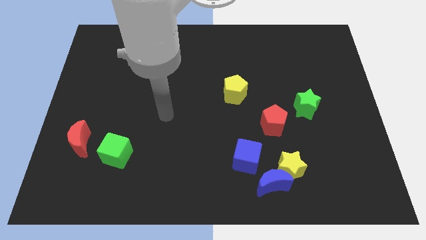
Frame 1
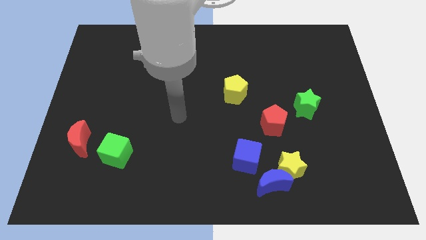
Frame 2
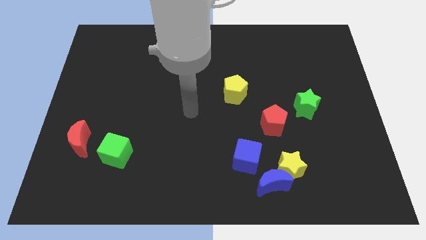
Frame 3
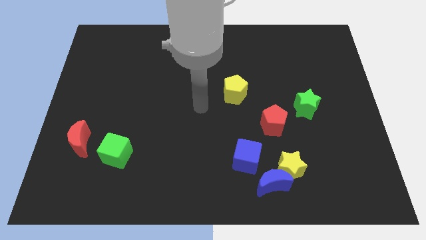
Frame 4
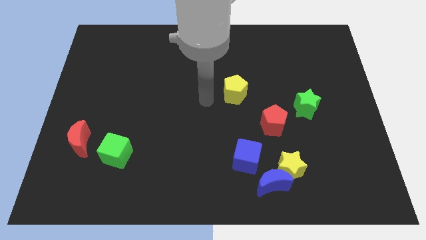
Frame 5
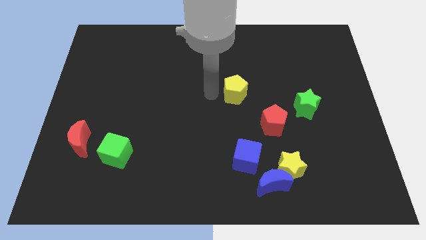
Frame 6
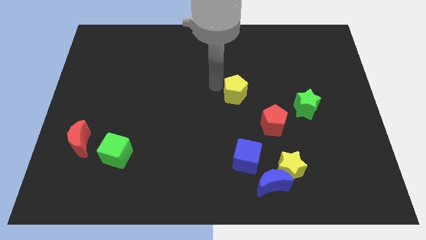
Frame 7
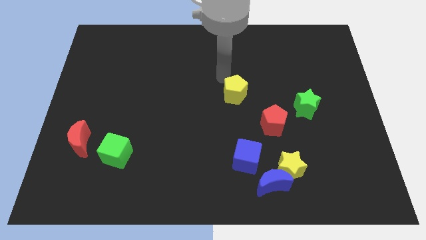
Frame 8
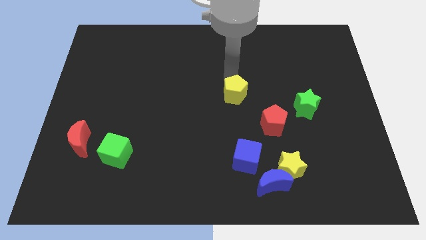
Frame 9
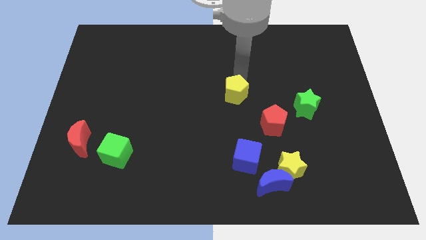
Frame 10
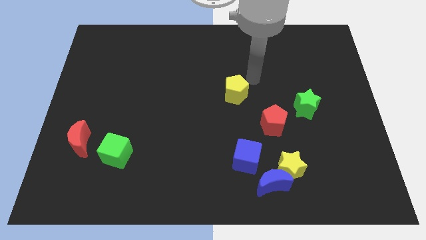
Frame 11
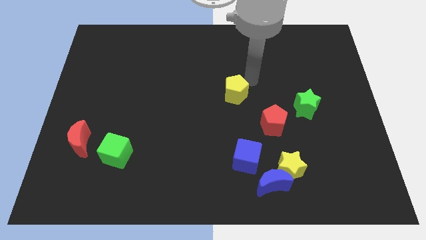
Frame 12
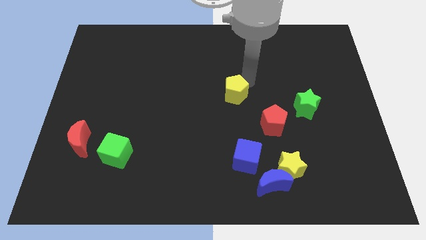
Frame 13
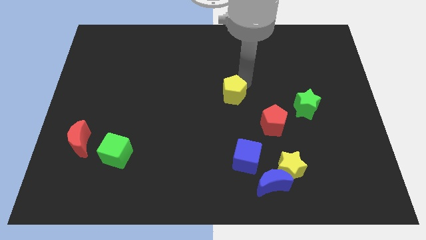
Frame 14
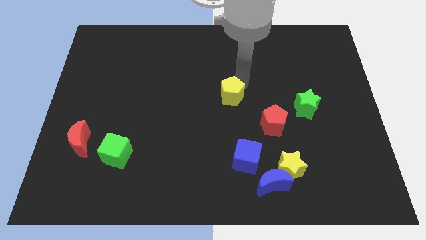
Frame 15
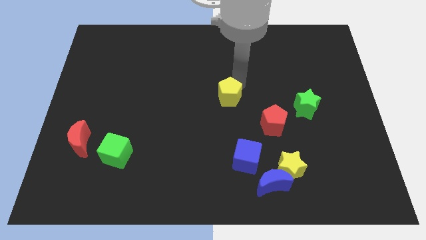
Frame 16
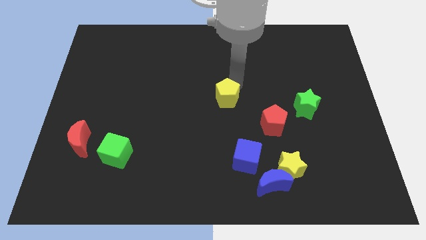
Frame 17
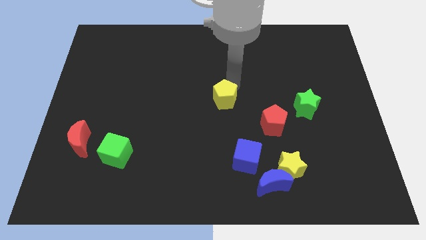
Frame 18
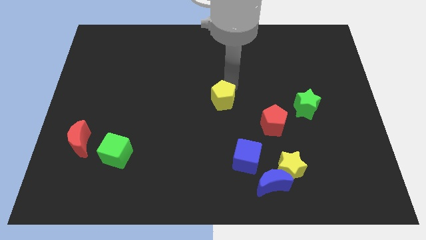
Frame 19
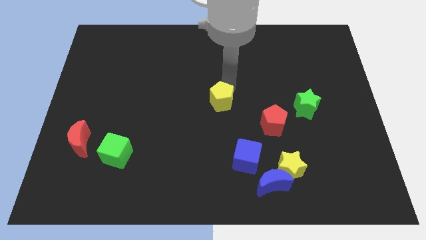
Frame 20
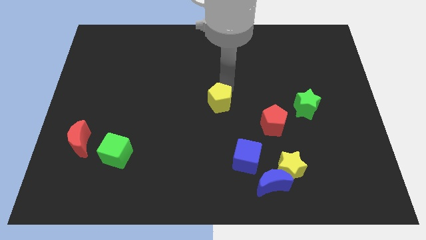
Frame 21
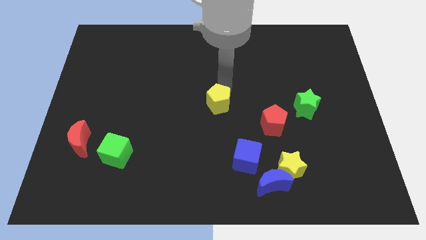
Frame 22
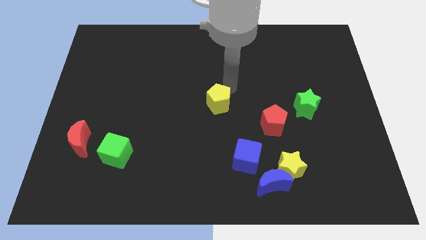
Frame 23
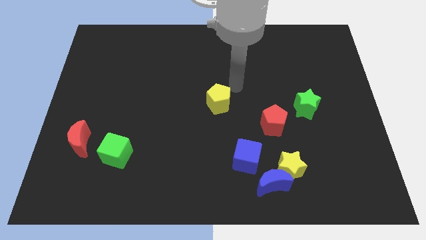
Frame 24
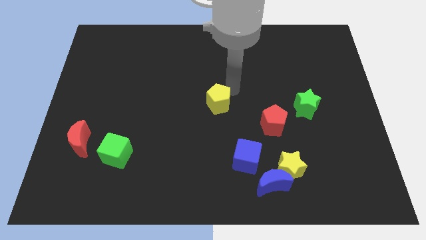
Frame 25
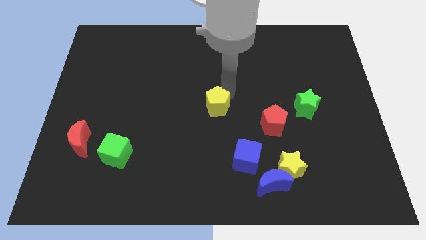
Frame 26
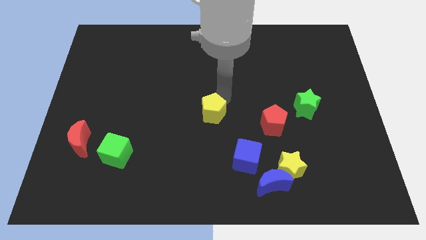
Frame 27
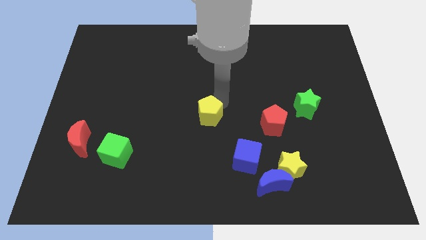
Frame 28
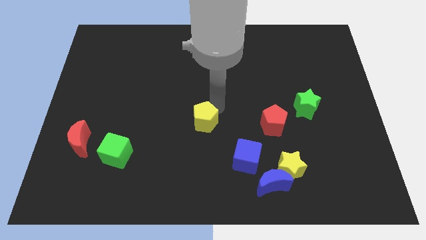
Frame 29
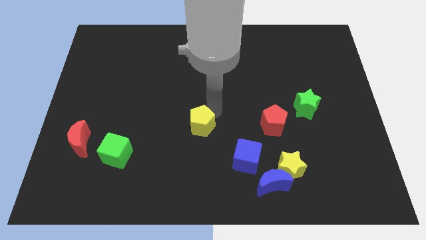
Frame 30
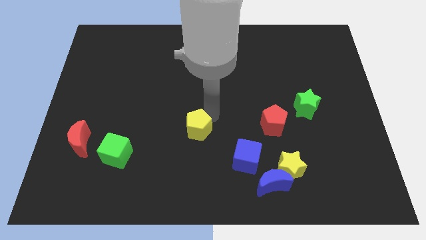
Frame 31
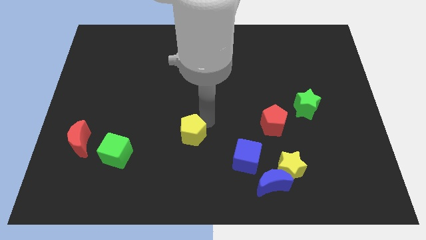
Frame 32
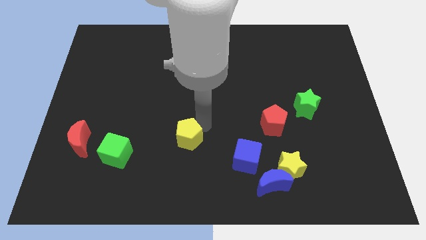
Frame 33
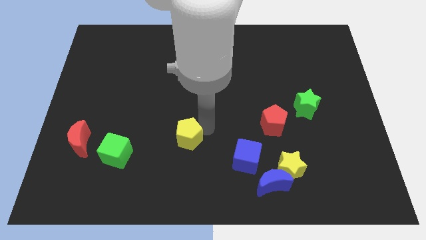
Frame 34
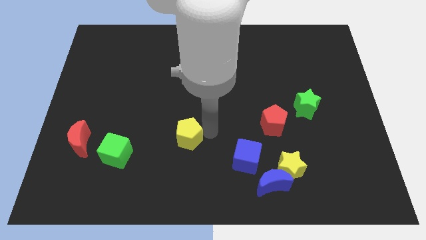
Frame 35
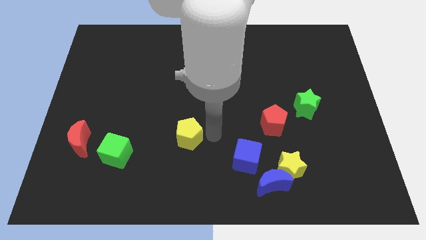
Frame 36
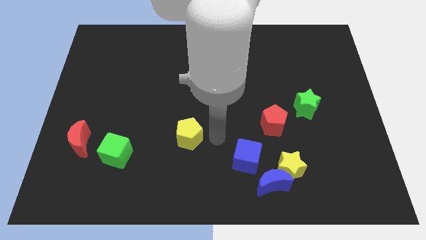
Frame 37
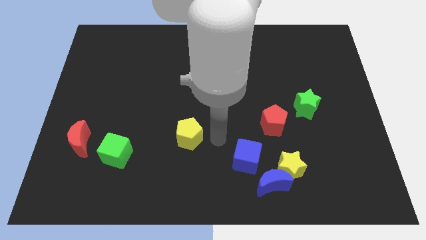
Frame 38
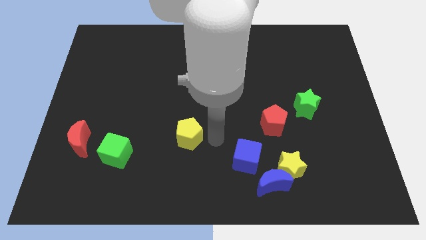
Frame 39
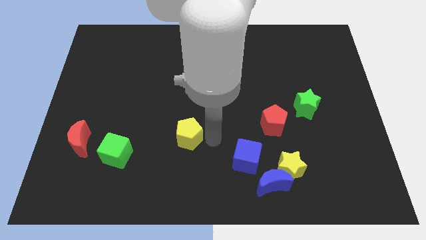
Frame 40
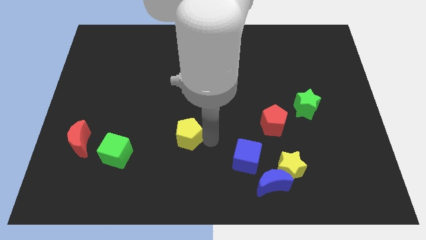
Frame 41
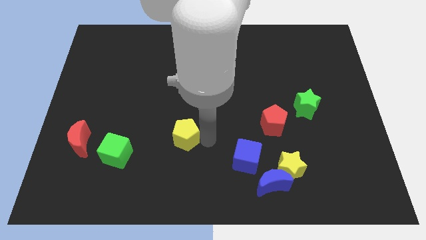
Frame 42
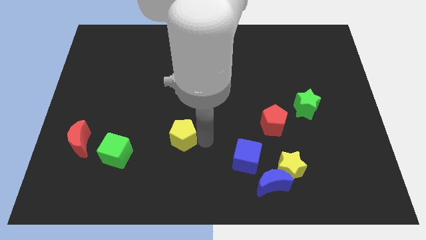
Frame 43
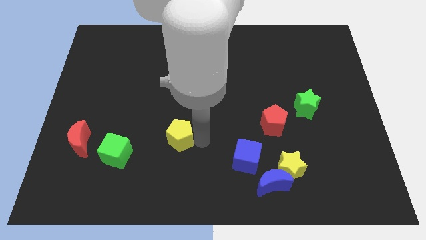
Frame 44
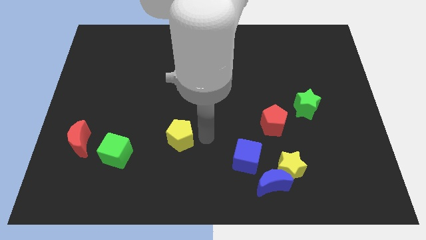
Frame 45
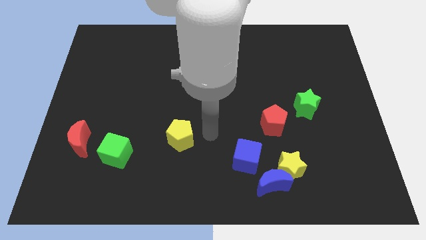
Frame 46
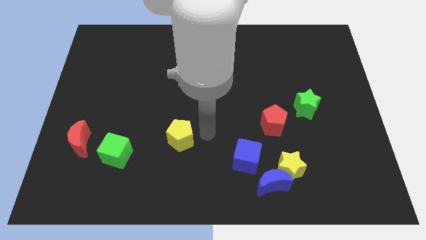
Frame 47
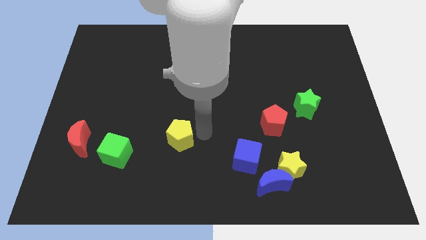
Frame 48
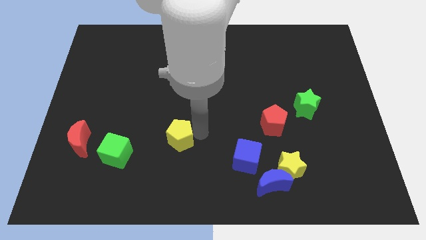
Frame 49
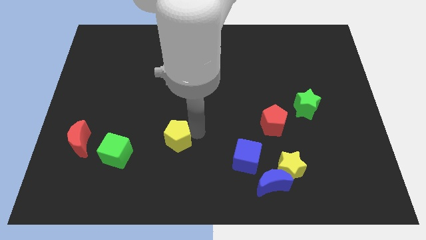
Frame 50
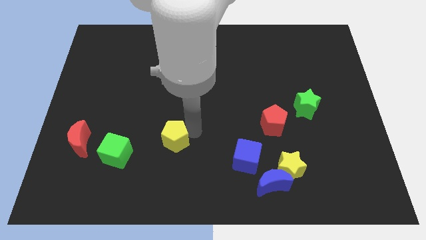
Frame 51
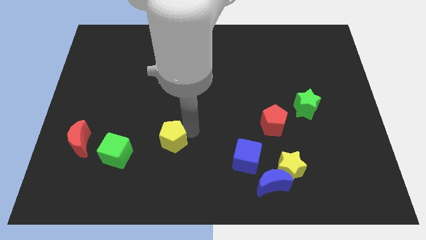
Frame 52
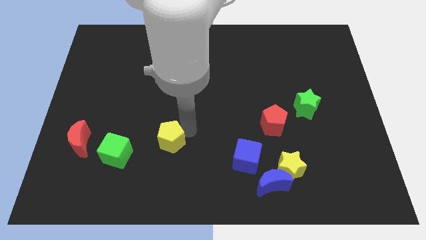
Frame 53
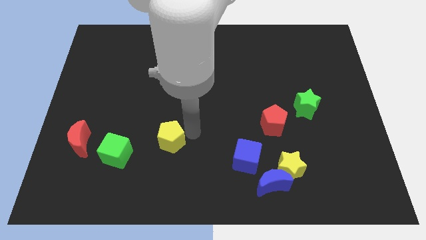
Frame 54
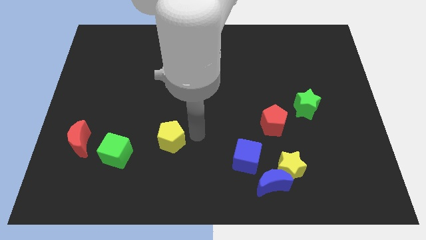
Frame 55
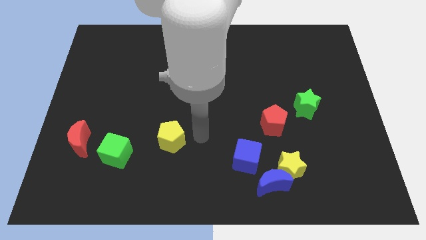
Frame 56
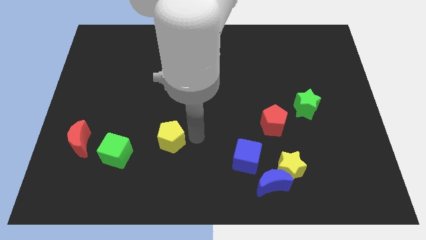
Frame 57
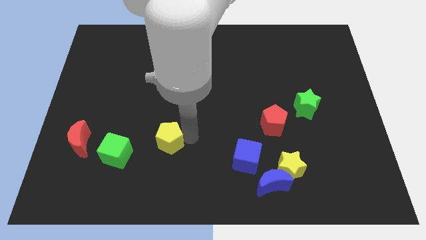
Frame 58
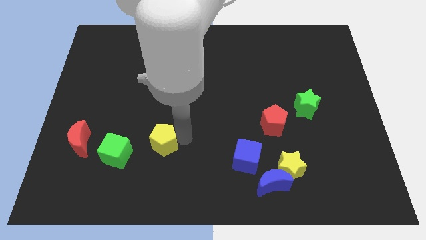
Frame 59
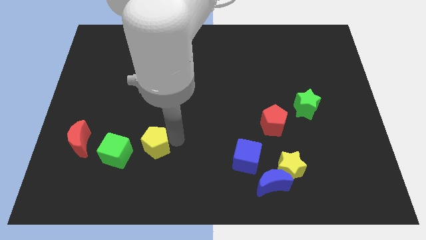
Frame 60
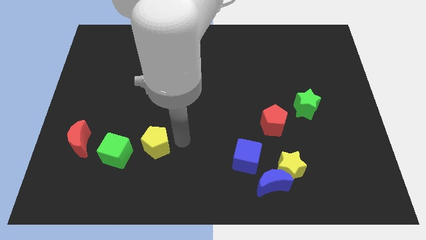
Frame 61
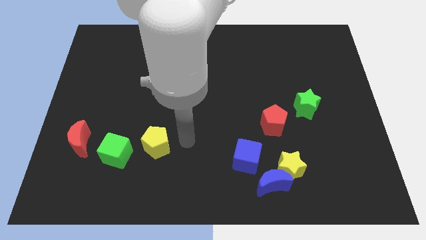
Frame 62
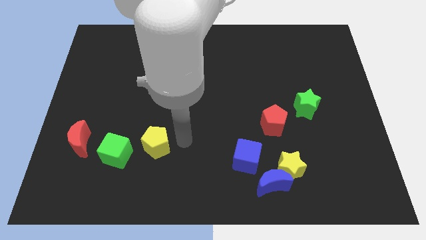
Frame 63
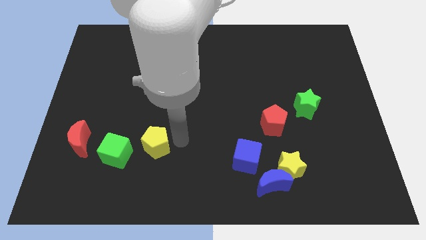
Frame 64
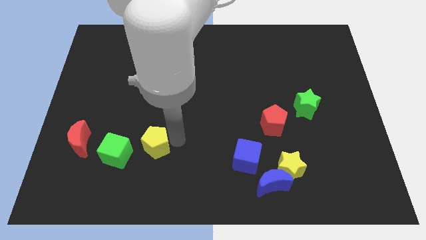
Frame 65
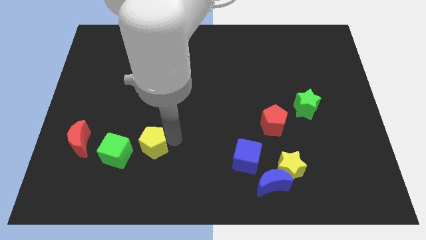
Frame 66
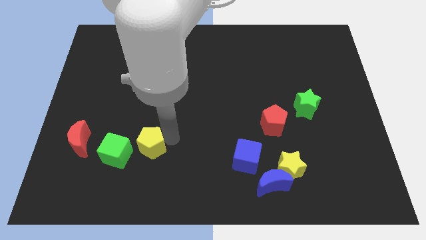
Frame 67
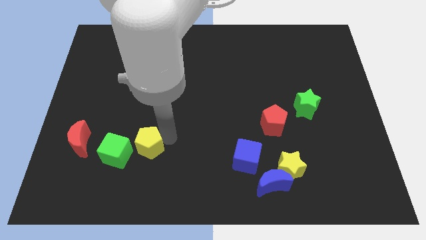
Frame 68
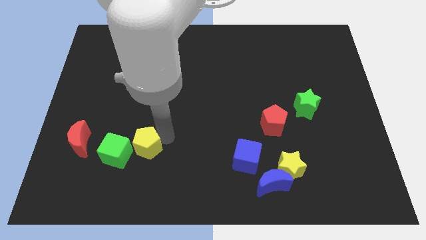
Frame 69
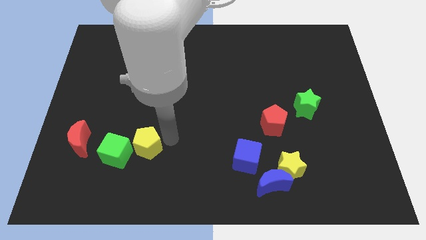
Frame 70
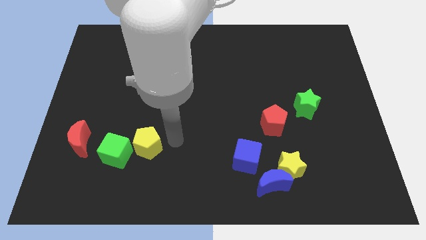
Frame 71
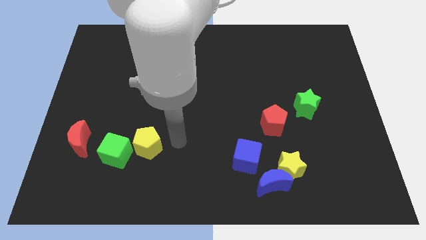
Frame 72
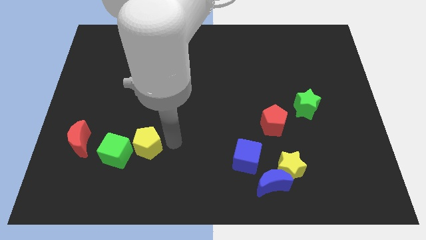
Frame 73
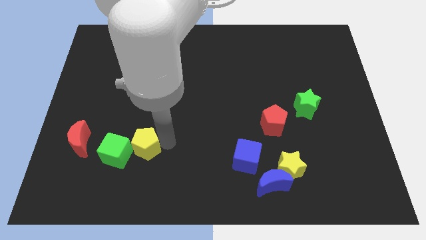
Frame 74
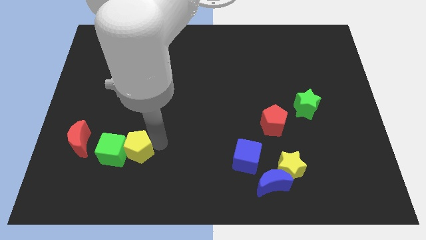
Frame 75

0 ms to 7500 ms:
push the yellow pentagon close to the green cube
